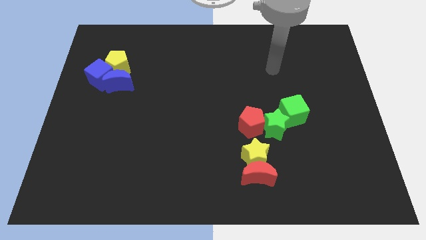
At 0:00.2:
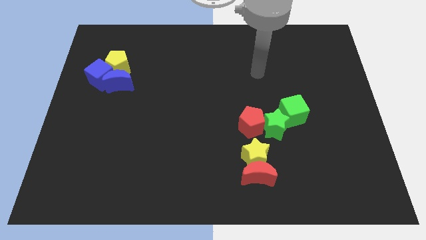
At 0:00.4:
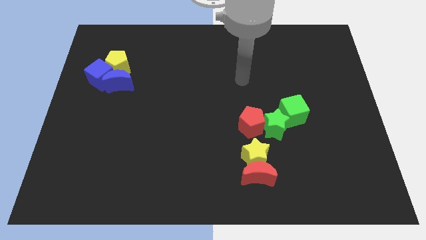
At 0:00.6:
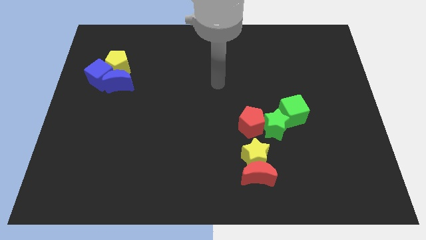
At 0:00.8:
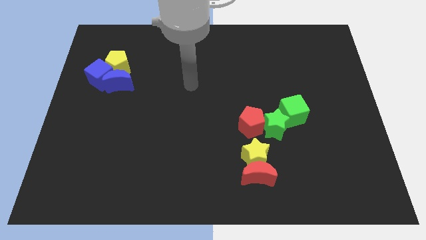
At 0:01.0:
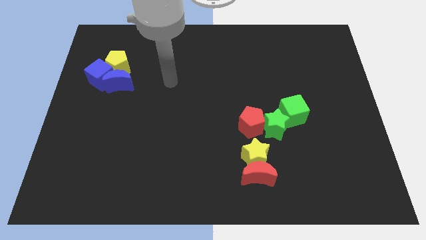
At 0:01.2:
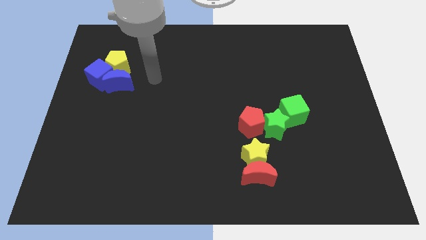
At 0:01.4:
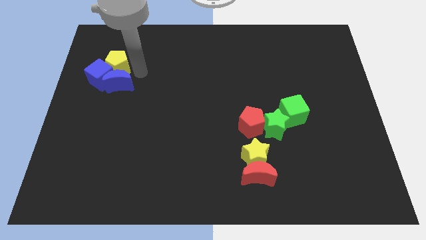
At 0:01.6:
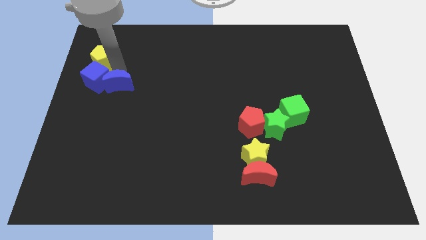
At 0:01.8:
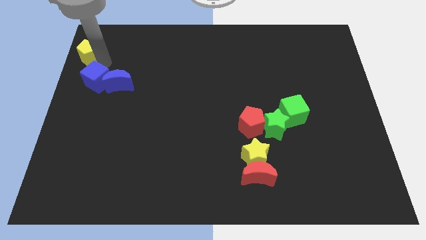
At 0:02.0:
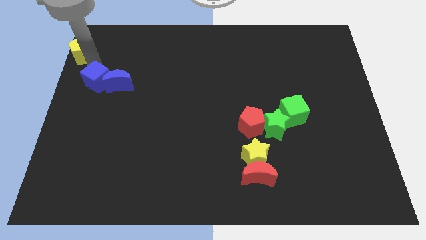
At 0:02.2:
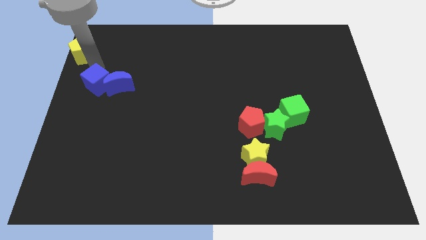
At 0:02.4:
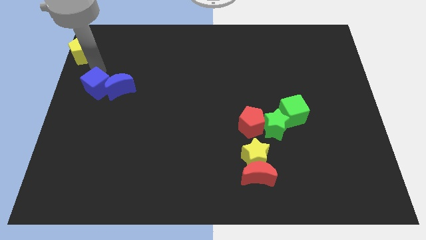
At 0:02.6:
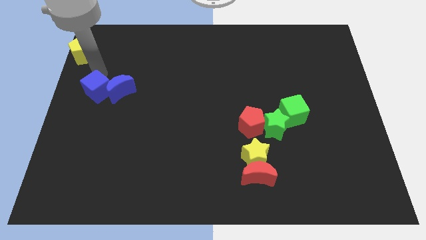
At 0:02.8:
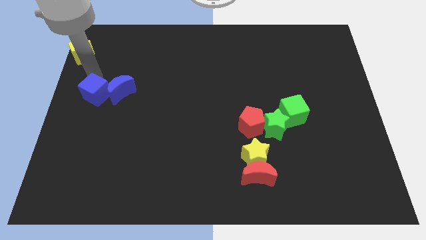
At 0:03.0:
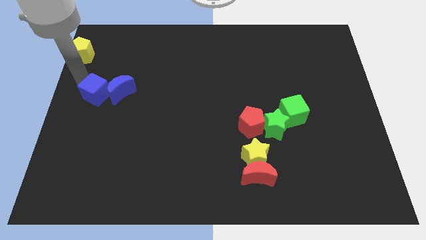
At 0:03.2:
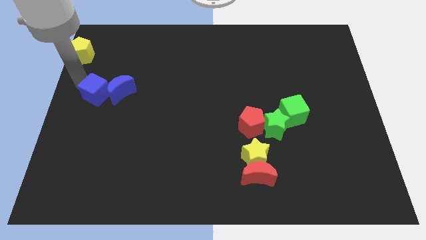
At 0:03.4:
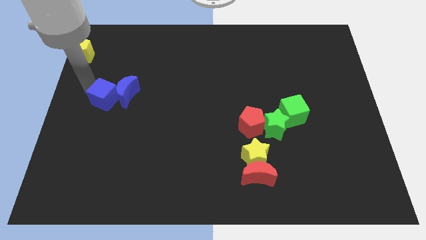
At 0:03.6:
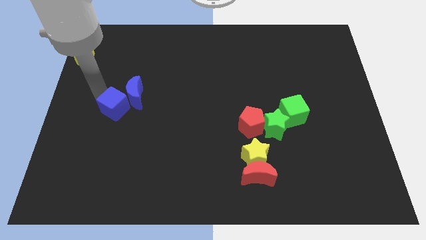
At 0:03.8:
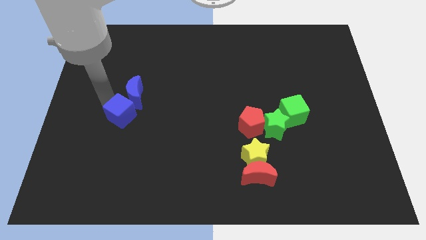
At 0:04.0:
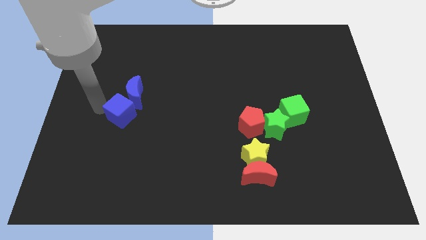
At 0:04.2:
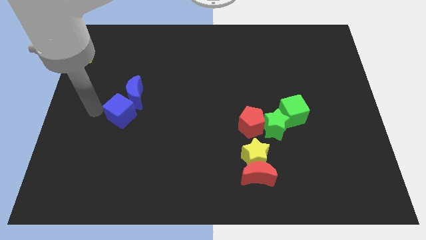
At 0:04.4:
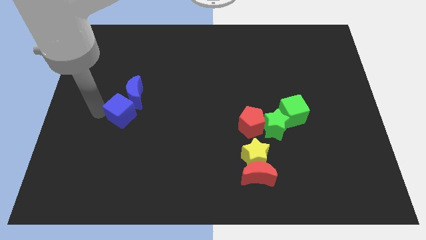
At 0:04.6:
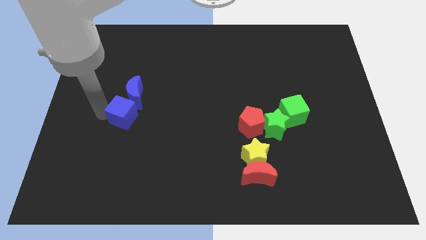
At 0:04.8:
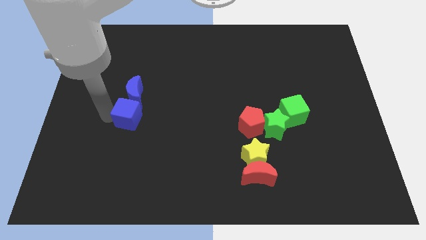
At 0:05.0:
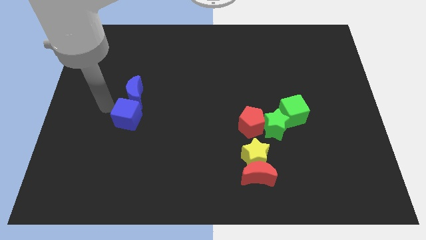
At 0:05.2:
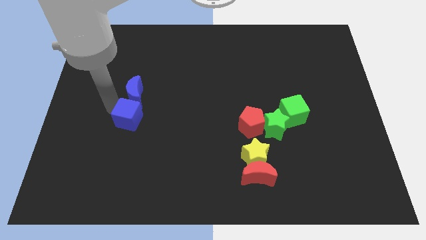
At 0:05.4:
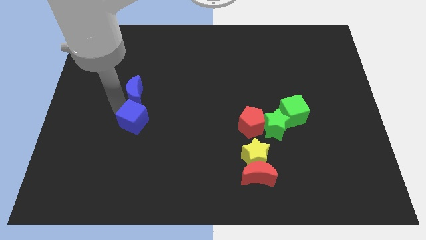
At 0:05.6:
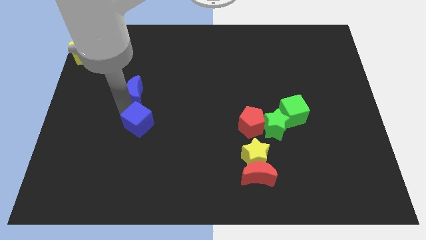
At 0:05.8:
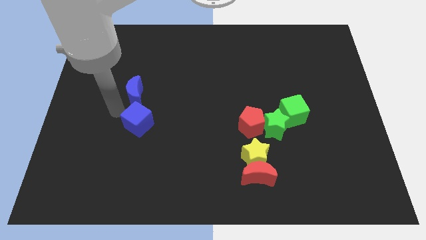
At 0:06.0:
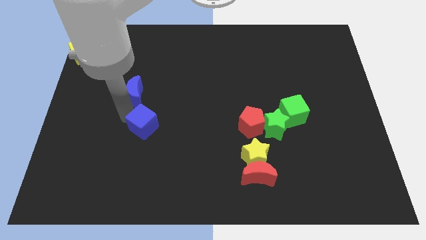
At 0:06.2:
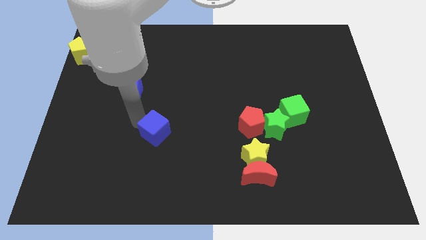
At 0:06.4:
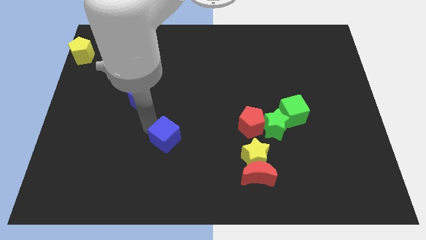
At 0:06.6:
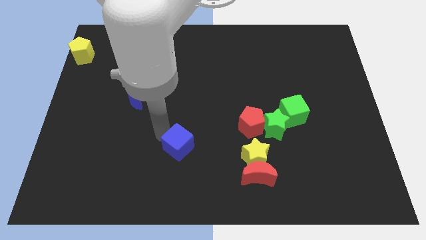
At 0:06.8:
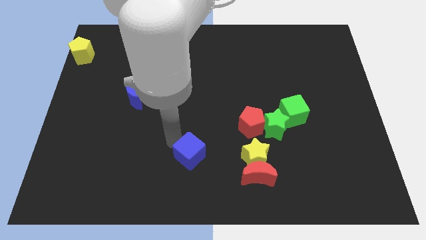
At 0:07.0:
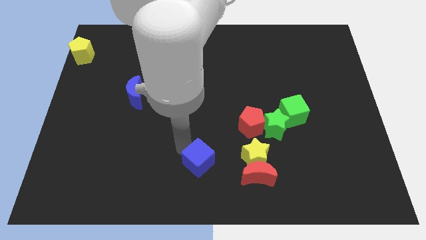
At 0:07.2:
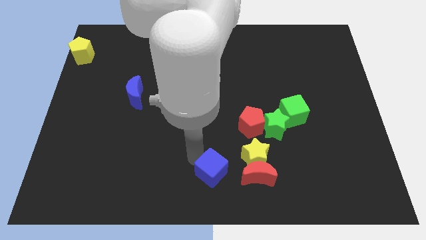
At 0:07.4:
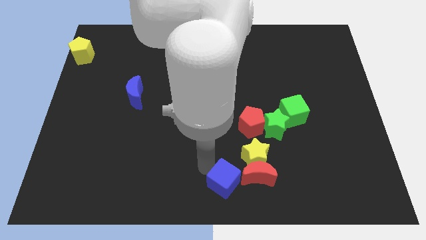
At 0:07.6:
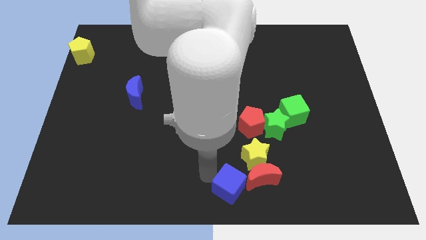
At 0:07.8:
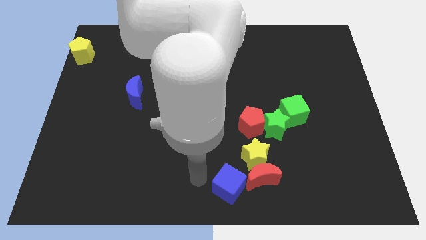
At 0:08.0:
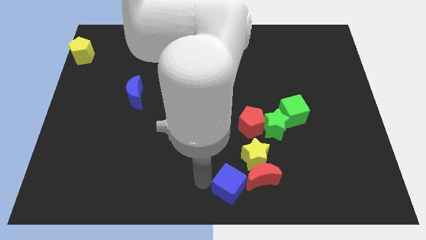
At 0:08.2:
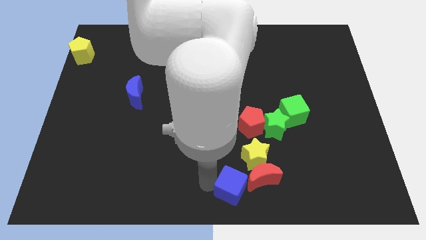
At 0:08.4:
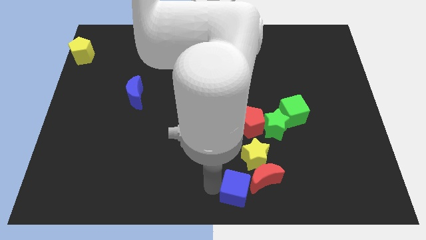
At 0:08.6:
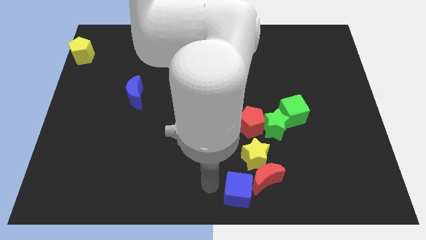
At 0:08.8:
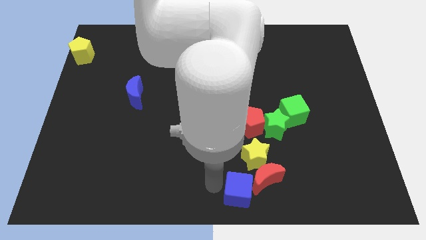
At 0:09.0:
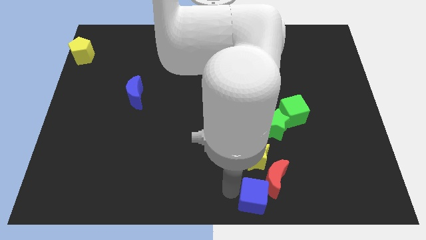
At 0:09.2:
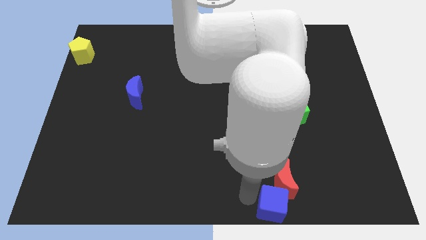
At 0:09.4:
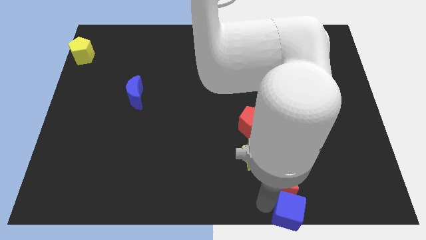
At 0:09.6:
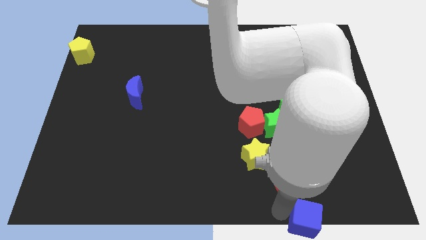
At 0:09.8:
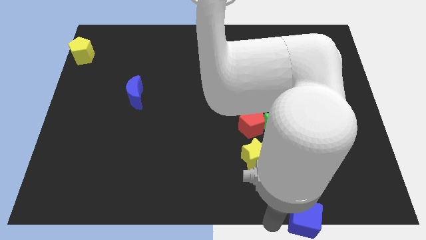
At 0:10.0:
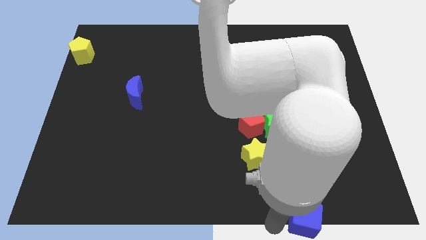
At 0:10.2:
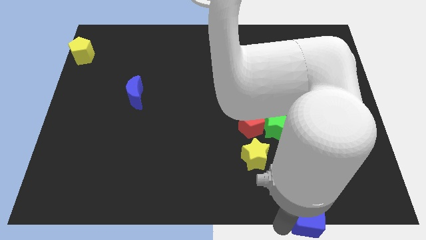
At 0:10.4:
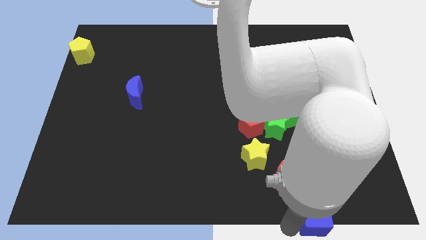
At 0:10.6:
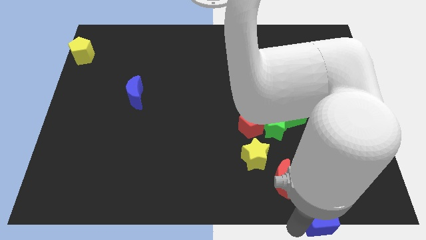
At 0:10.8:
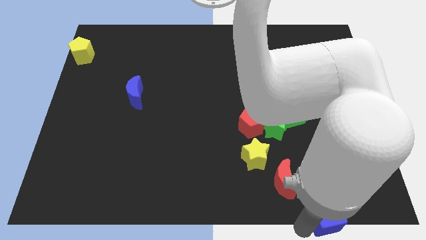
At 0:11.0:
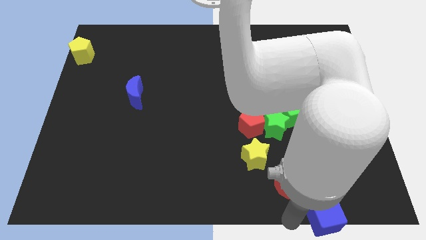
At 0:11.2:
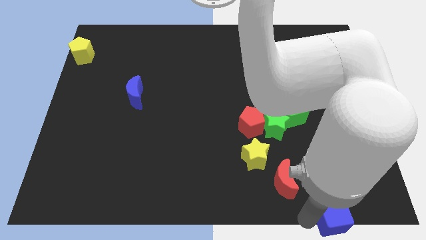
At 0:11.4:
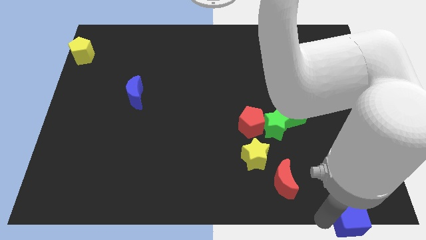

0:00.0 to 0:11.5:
move the blue cube to the bottom right corner

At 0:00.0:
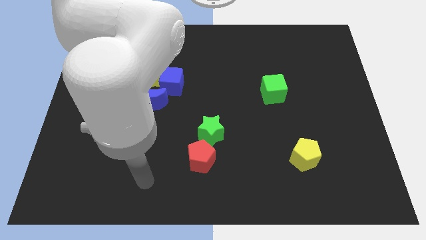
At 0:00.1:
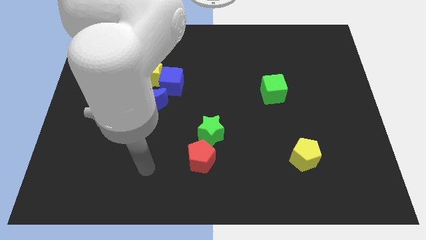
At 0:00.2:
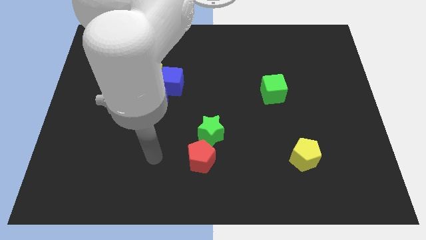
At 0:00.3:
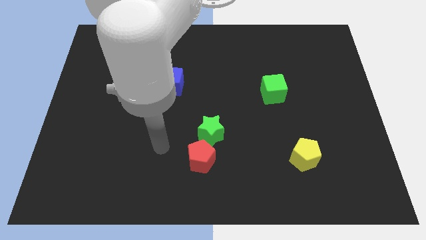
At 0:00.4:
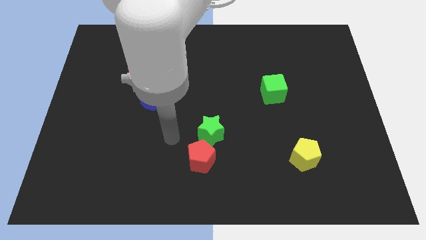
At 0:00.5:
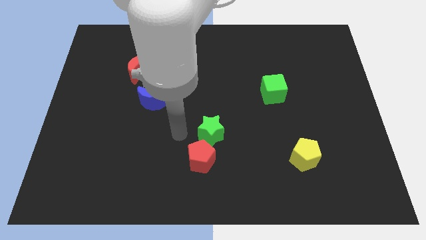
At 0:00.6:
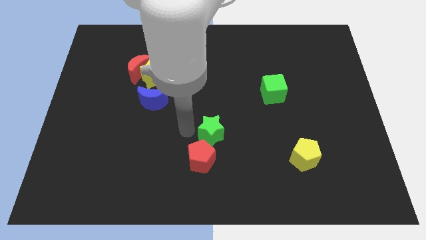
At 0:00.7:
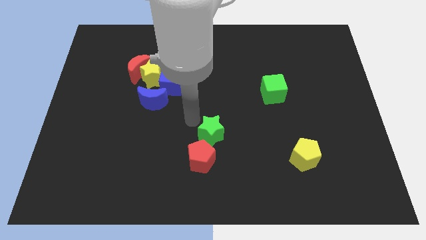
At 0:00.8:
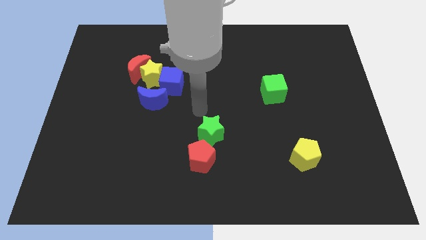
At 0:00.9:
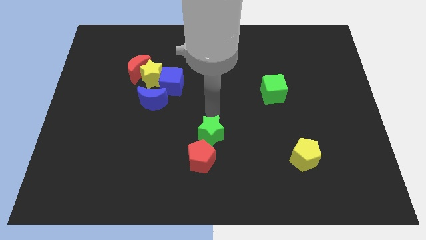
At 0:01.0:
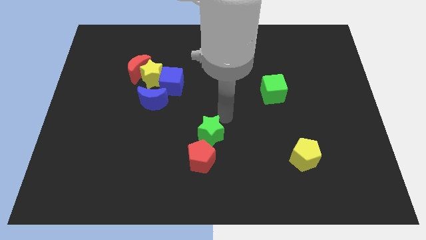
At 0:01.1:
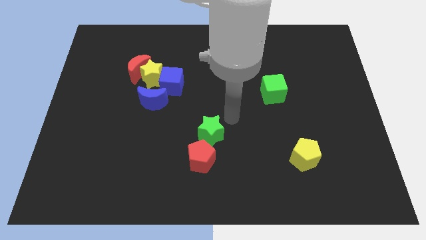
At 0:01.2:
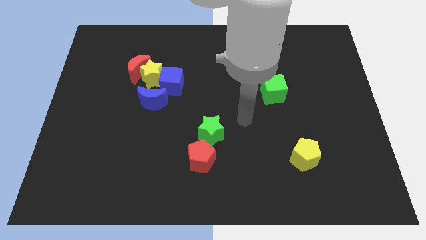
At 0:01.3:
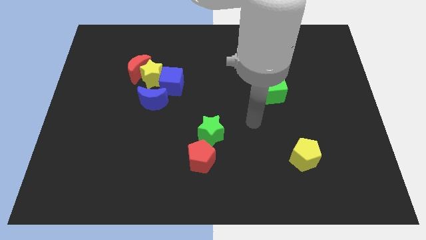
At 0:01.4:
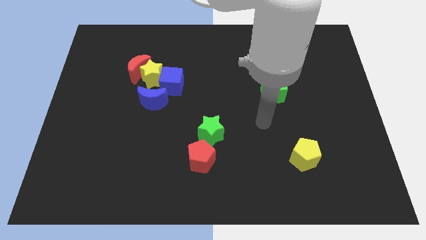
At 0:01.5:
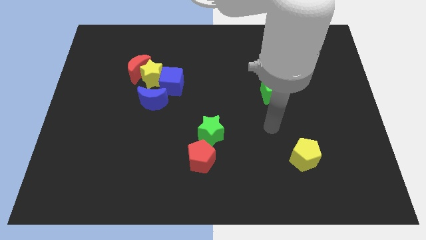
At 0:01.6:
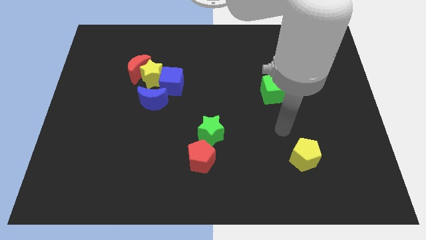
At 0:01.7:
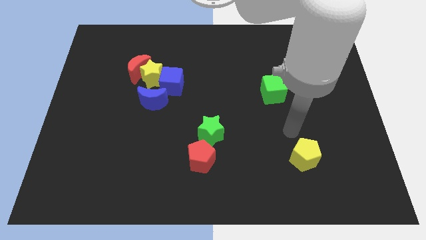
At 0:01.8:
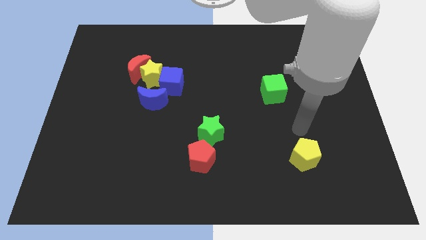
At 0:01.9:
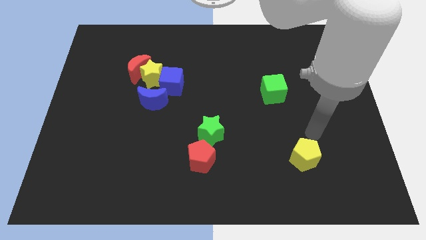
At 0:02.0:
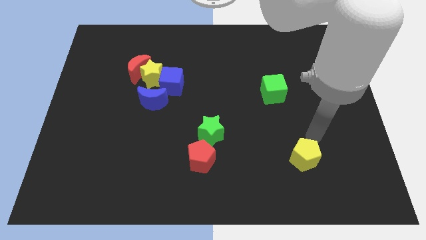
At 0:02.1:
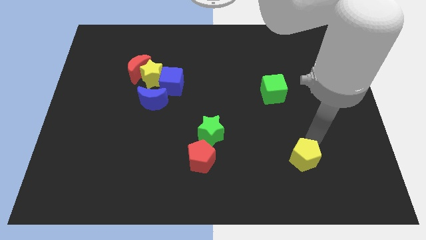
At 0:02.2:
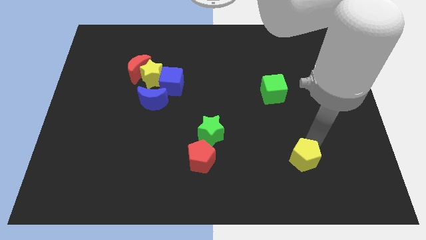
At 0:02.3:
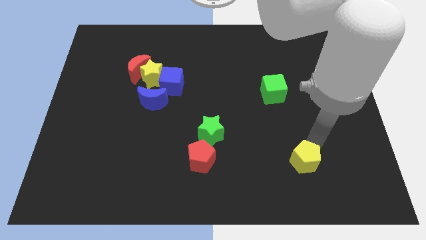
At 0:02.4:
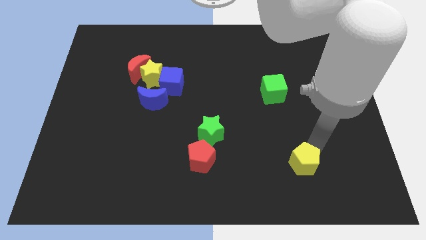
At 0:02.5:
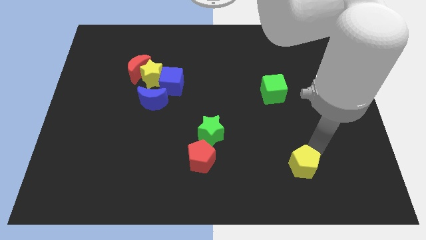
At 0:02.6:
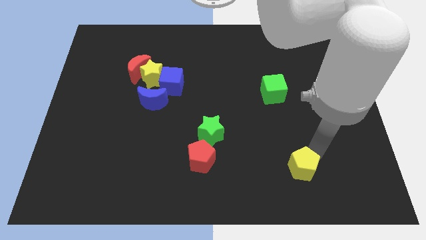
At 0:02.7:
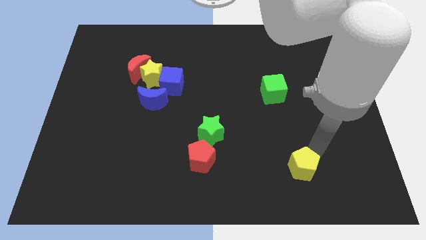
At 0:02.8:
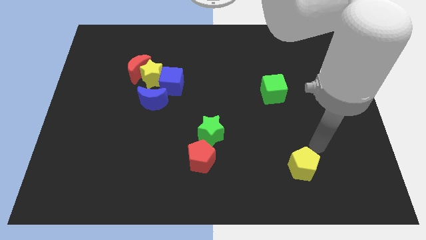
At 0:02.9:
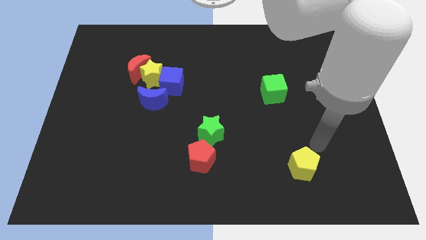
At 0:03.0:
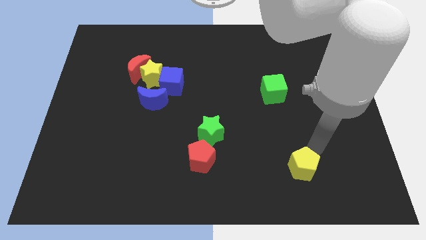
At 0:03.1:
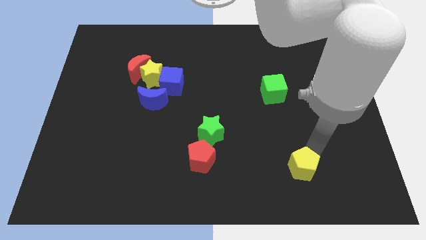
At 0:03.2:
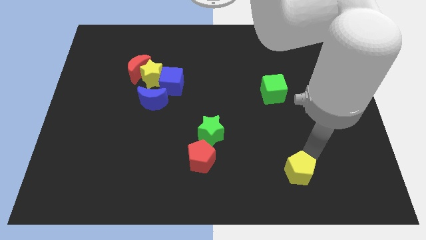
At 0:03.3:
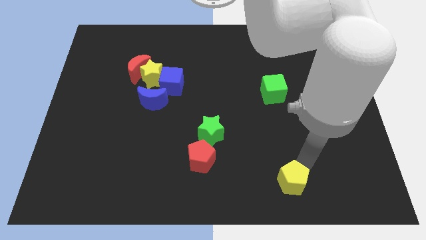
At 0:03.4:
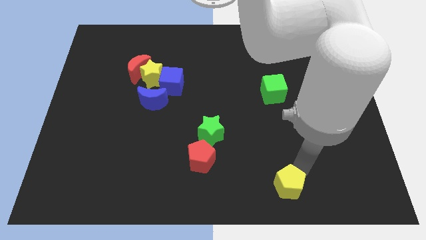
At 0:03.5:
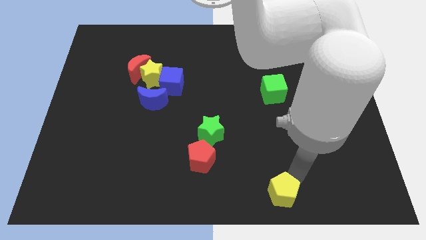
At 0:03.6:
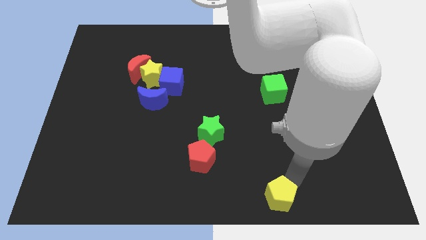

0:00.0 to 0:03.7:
push the yellow pentagon to the bottom side
